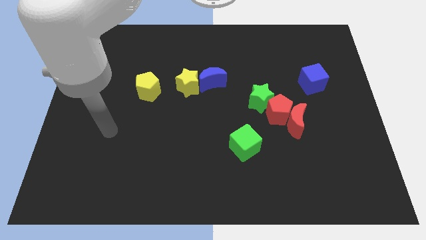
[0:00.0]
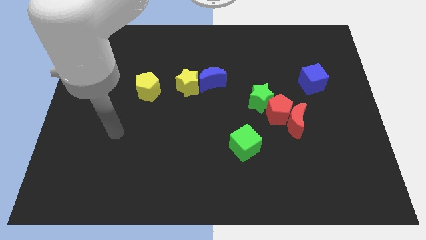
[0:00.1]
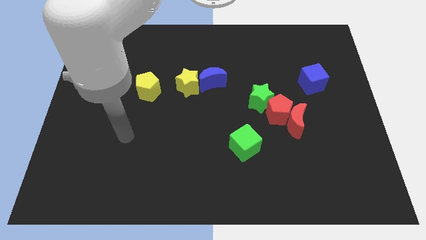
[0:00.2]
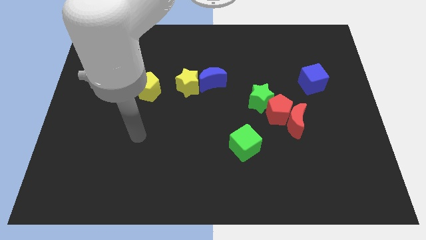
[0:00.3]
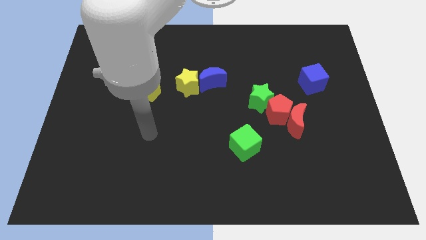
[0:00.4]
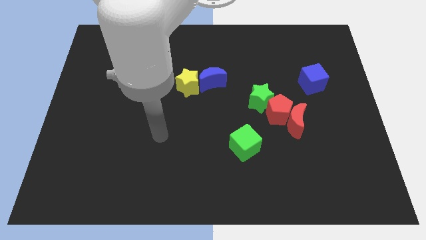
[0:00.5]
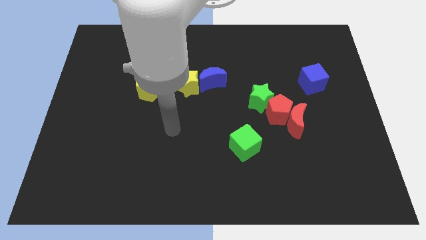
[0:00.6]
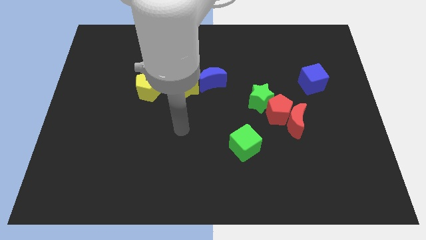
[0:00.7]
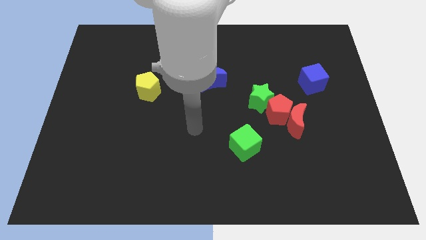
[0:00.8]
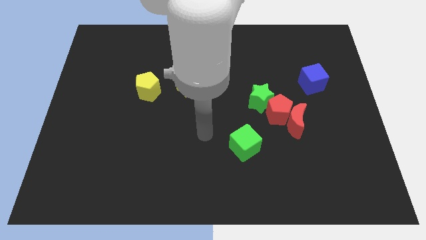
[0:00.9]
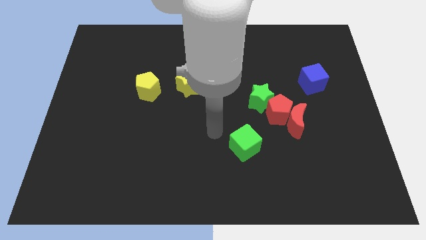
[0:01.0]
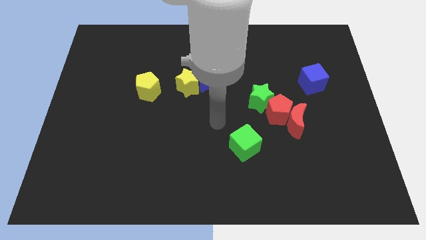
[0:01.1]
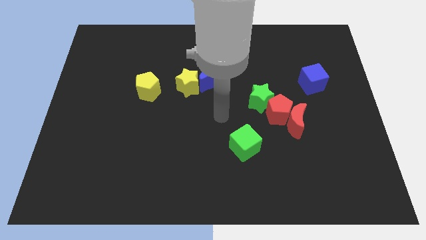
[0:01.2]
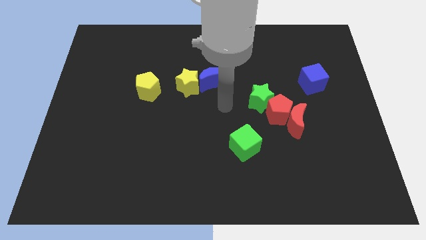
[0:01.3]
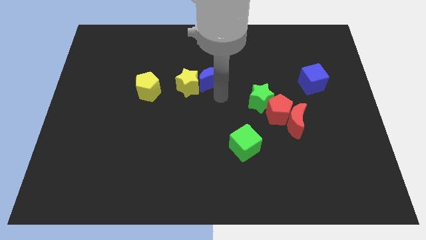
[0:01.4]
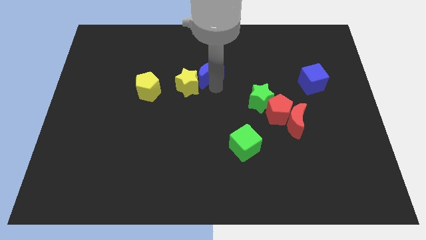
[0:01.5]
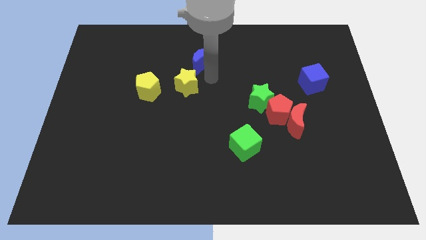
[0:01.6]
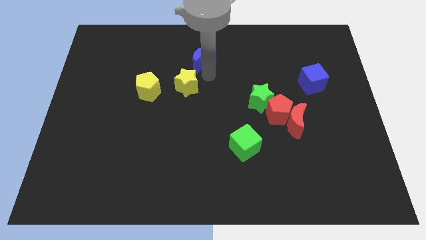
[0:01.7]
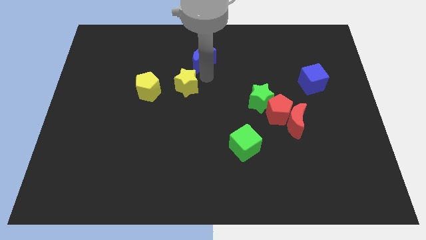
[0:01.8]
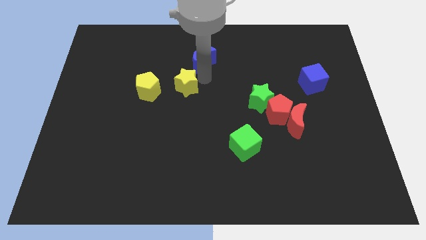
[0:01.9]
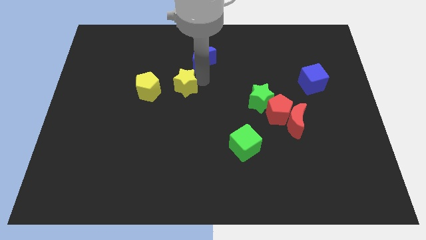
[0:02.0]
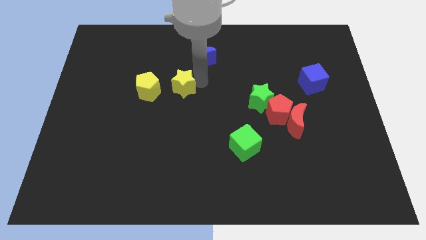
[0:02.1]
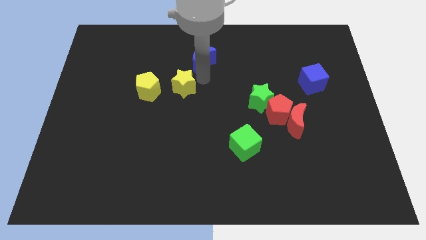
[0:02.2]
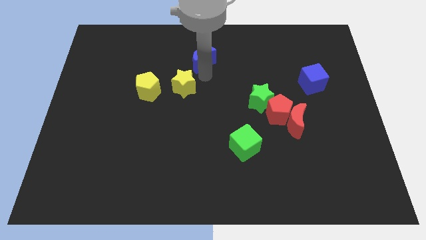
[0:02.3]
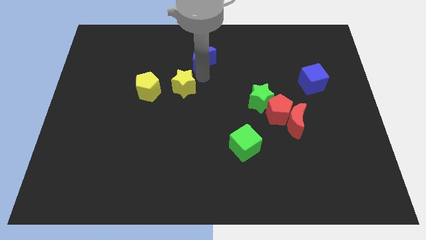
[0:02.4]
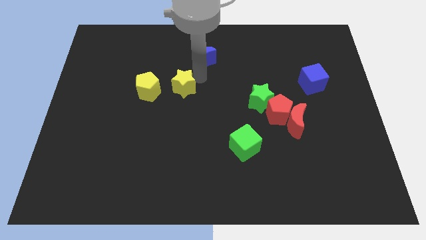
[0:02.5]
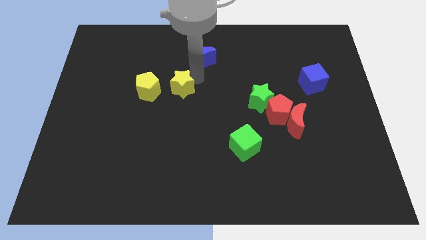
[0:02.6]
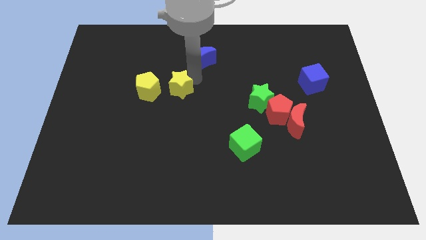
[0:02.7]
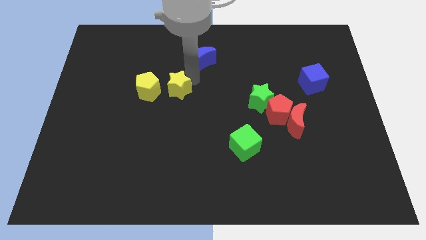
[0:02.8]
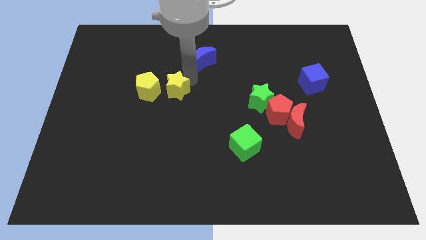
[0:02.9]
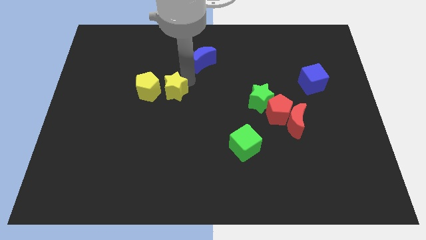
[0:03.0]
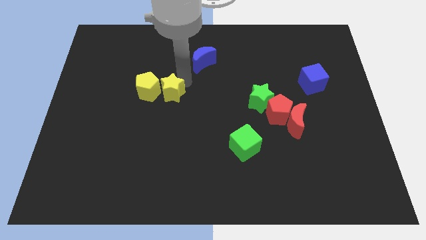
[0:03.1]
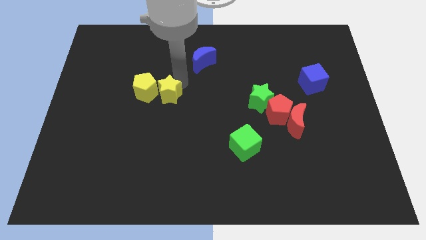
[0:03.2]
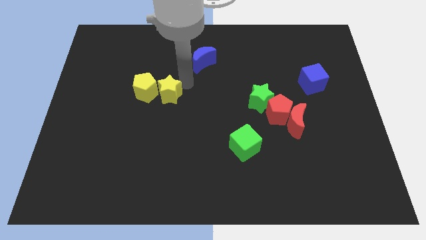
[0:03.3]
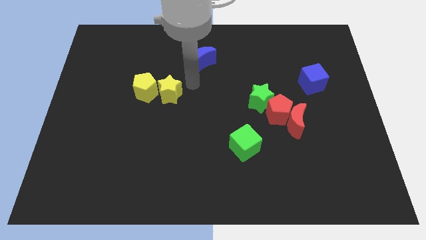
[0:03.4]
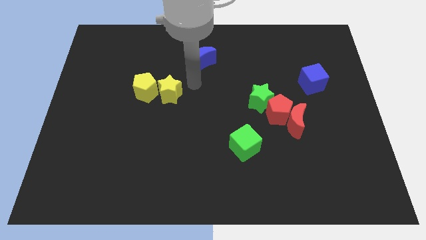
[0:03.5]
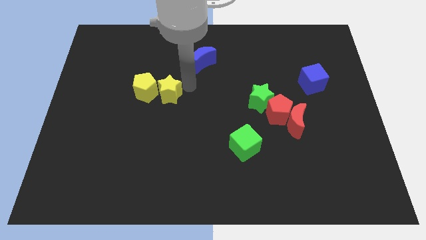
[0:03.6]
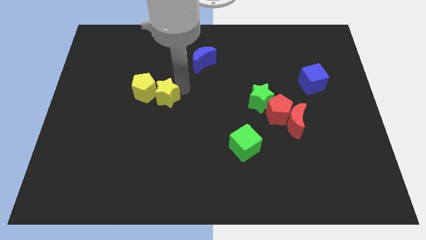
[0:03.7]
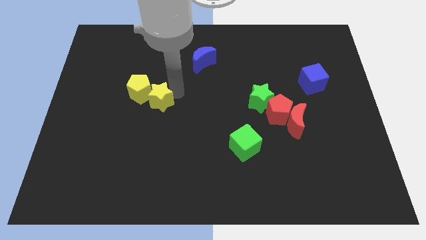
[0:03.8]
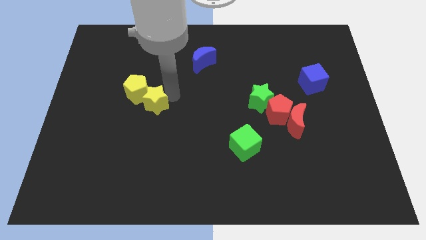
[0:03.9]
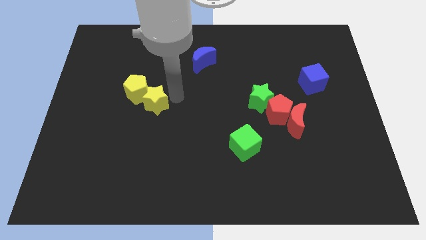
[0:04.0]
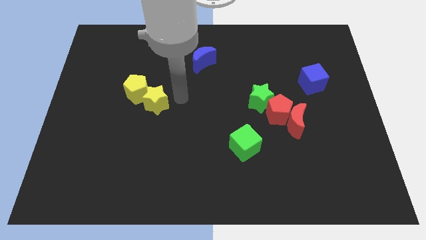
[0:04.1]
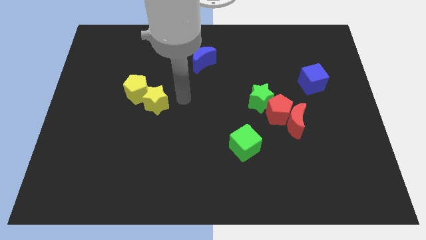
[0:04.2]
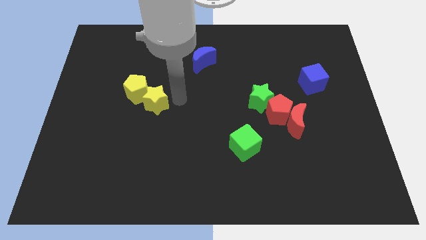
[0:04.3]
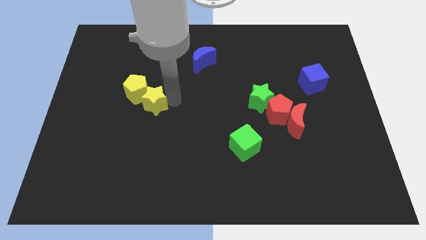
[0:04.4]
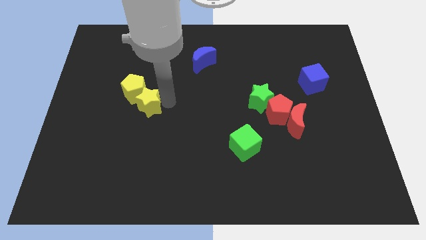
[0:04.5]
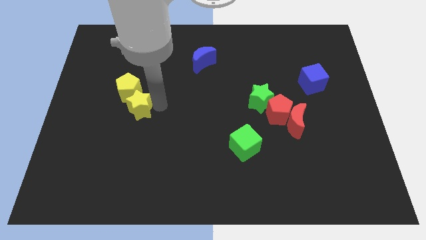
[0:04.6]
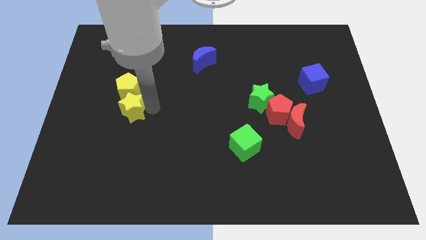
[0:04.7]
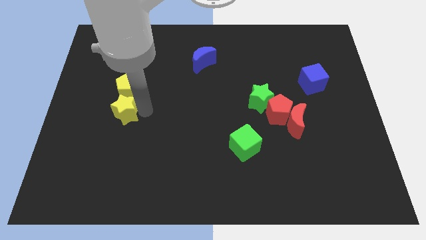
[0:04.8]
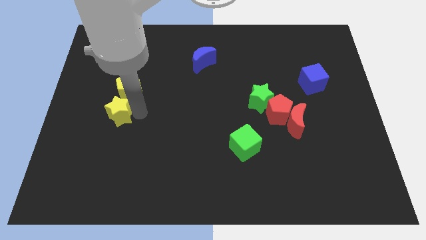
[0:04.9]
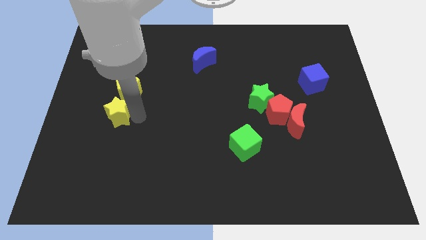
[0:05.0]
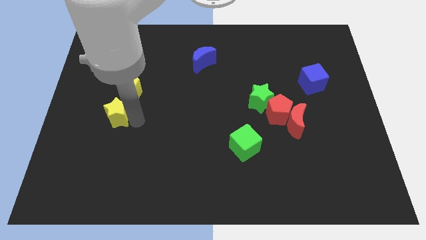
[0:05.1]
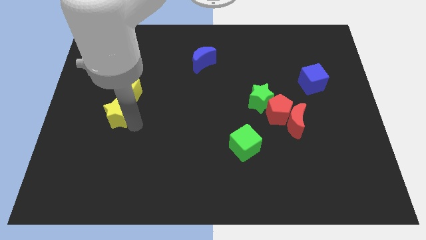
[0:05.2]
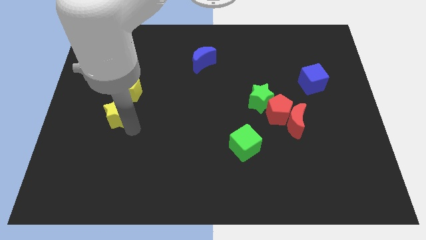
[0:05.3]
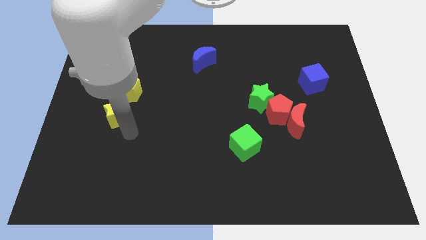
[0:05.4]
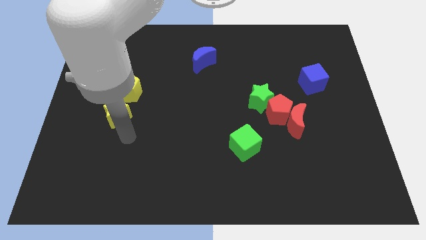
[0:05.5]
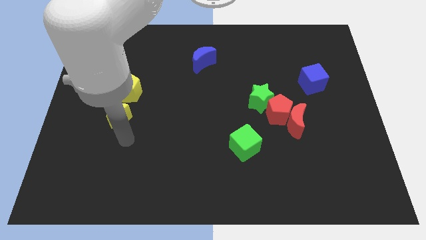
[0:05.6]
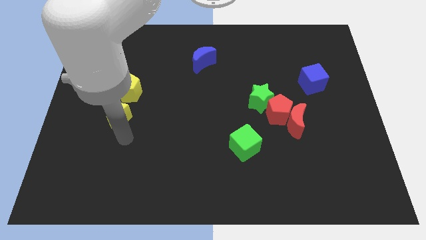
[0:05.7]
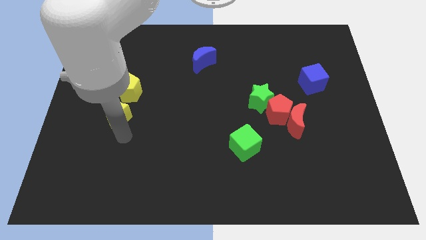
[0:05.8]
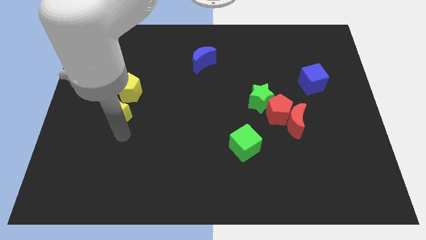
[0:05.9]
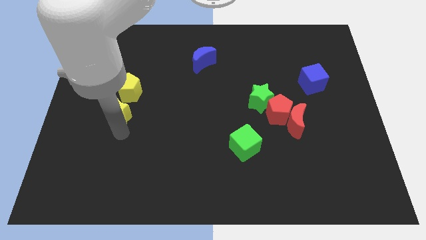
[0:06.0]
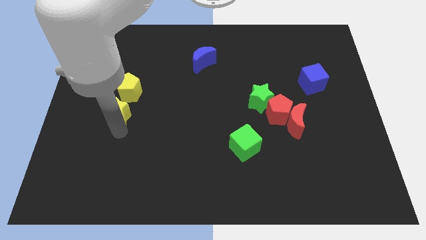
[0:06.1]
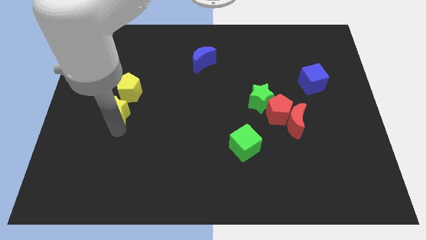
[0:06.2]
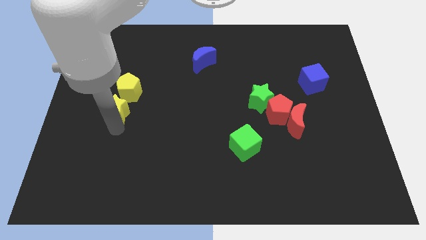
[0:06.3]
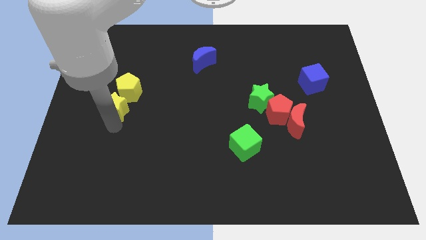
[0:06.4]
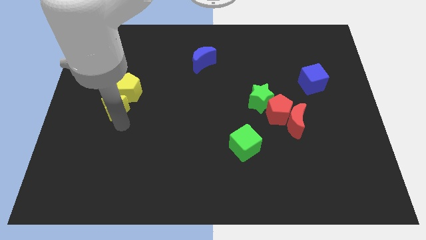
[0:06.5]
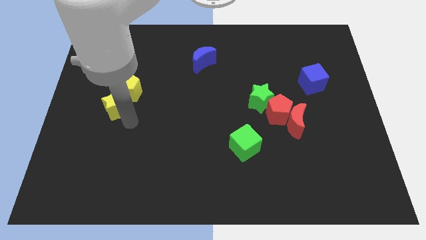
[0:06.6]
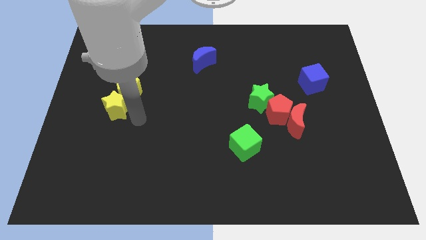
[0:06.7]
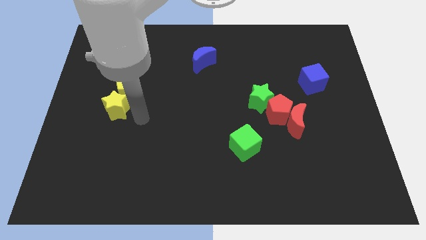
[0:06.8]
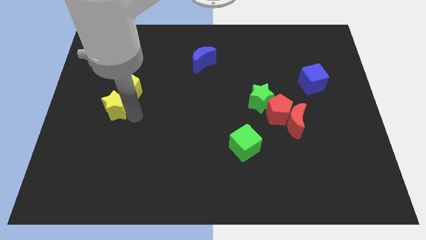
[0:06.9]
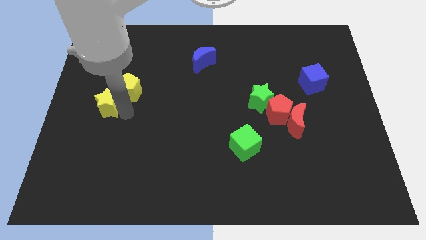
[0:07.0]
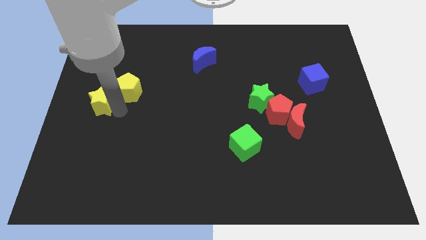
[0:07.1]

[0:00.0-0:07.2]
slide the yellow star to the center left
